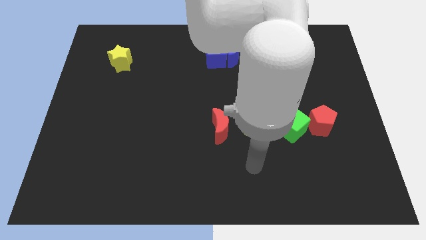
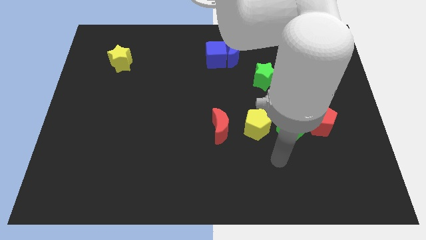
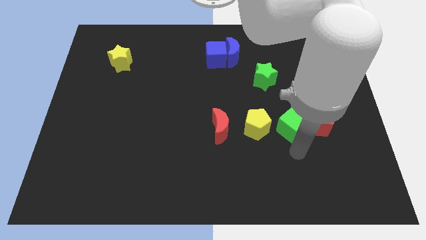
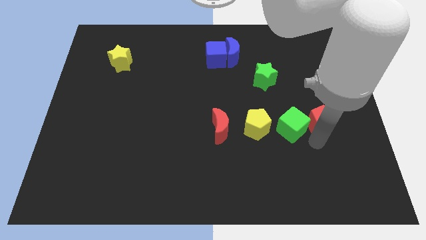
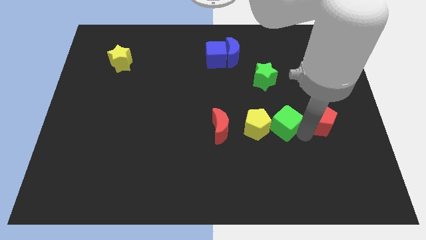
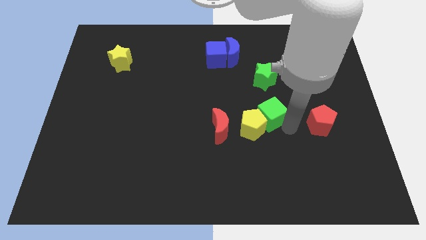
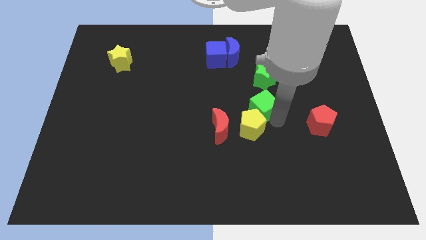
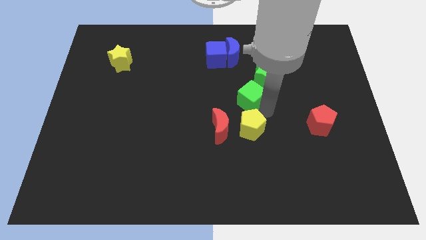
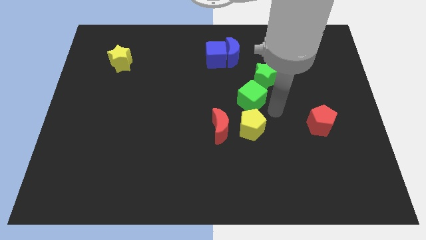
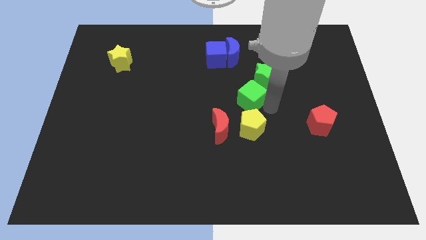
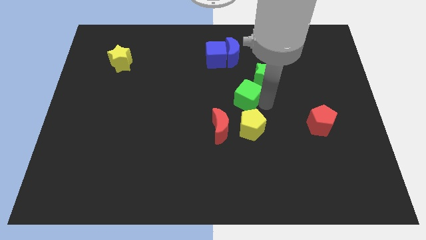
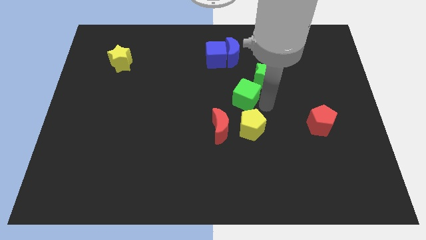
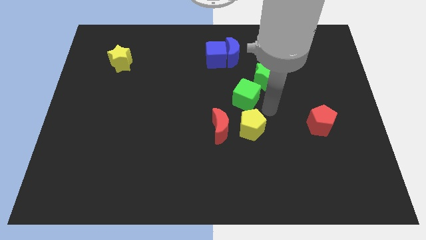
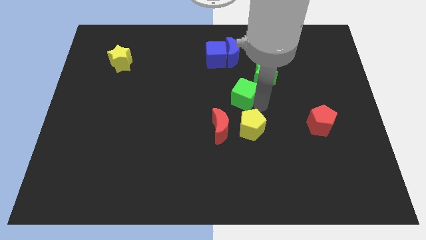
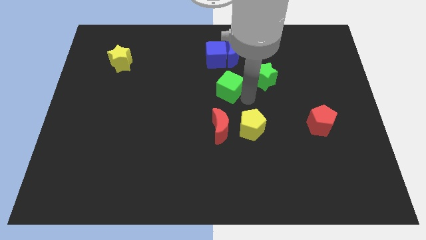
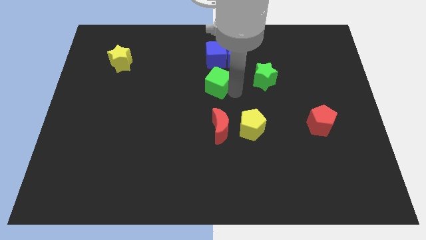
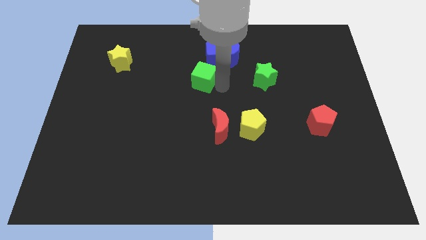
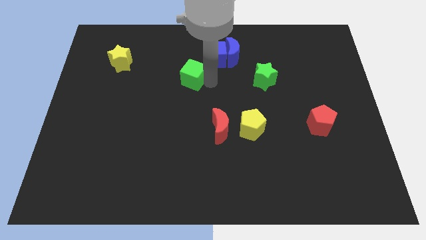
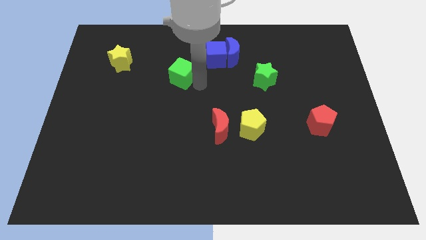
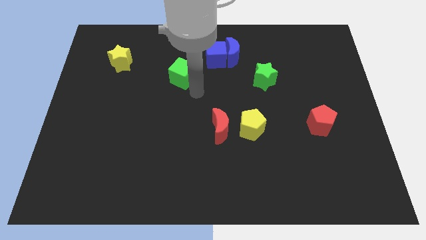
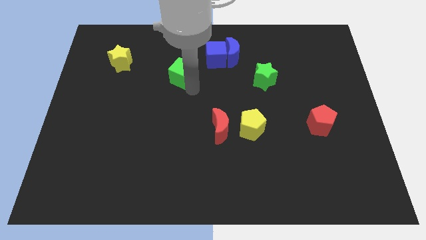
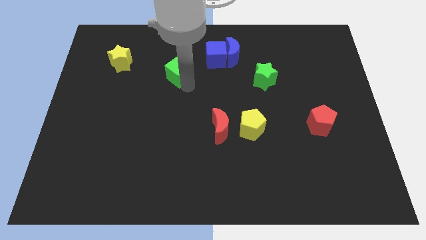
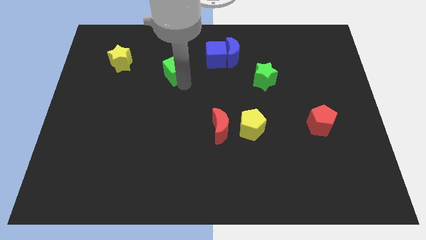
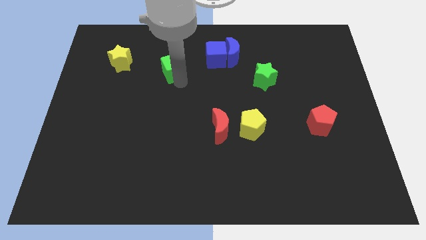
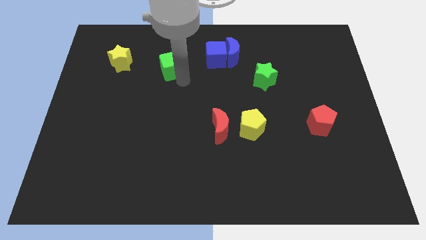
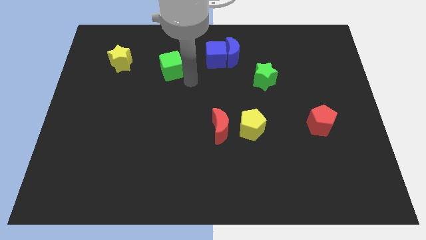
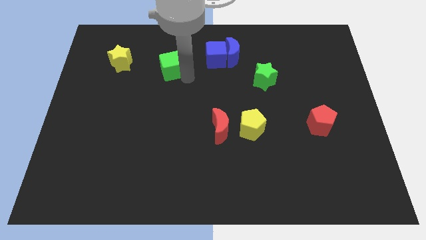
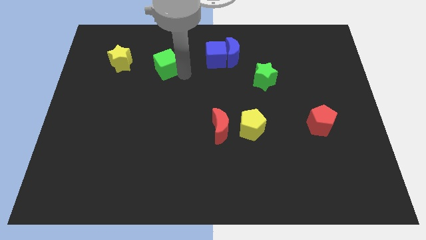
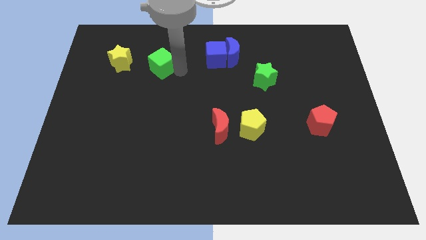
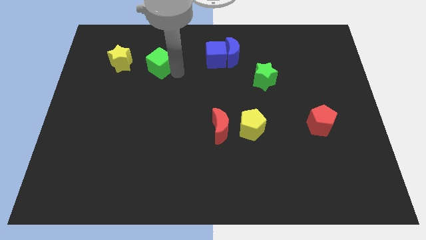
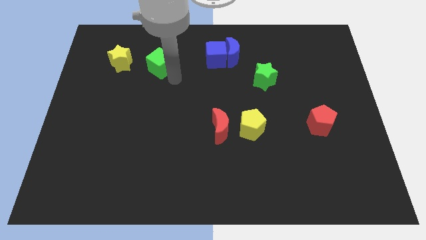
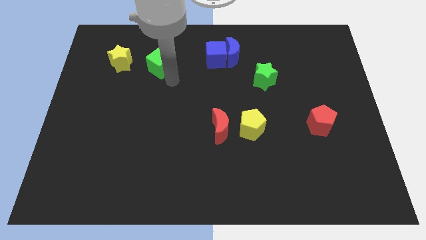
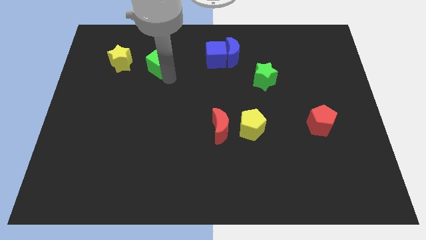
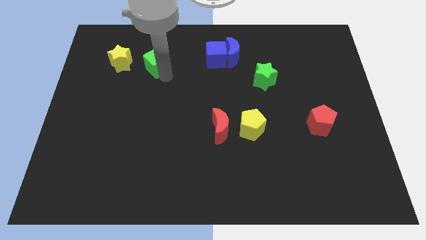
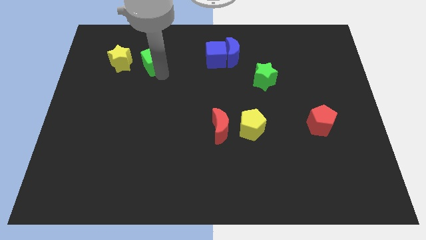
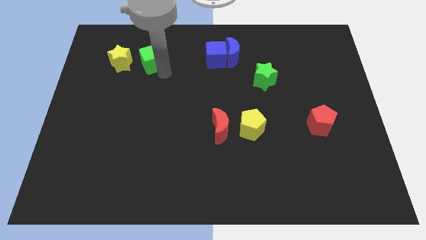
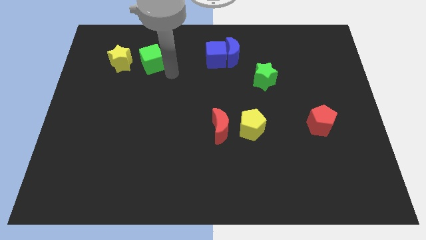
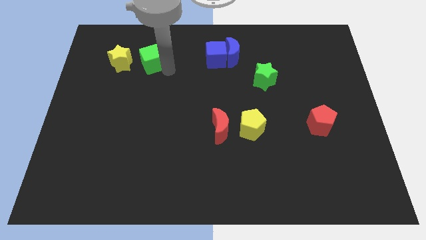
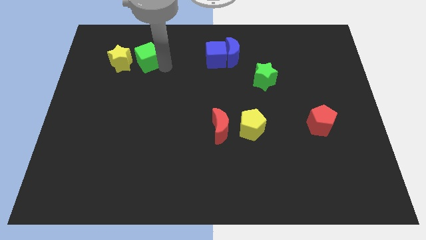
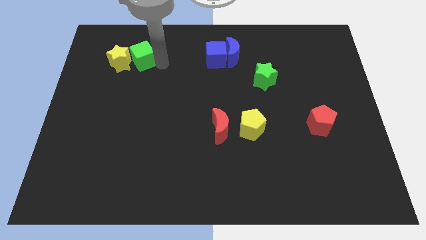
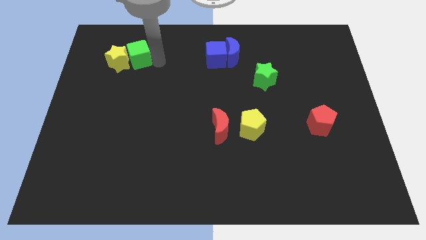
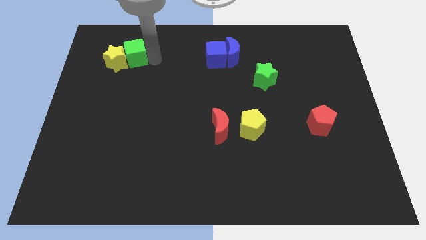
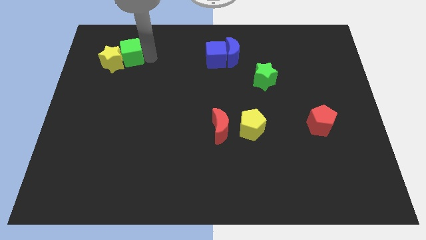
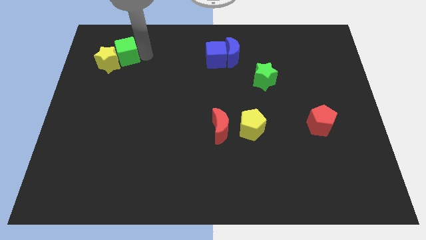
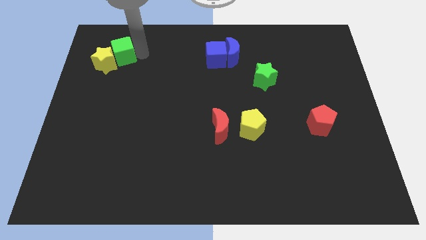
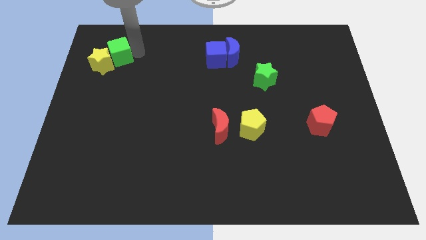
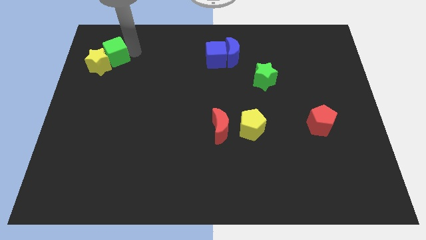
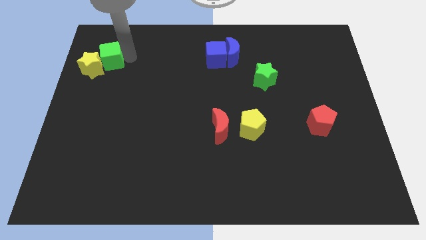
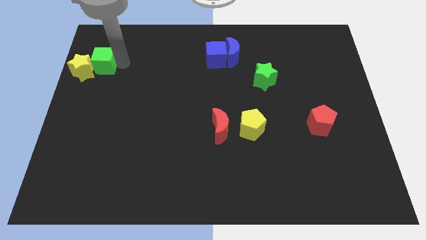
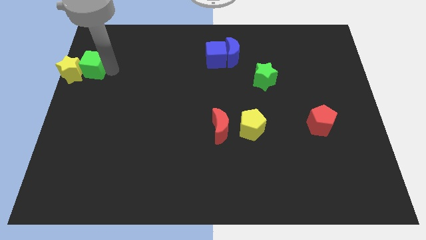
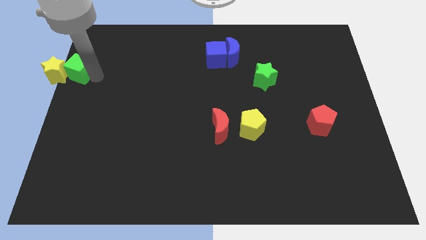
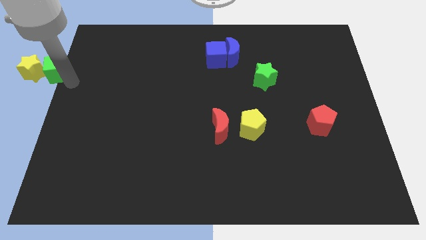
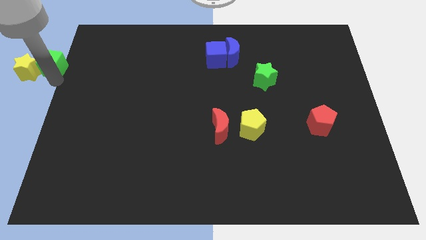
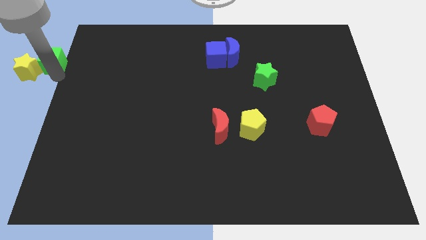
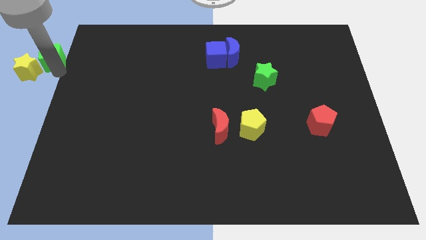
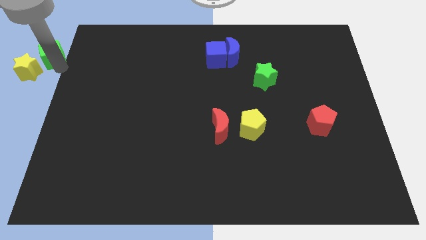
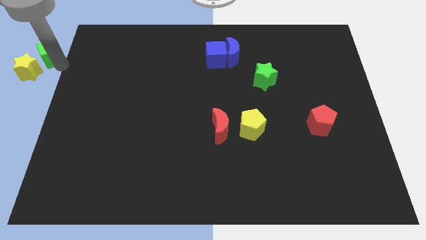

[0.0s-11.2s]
slide the green cube to the top left of the board

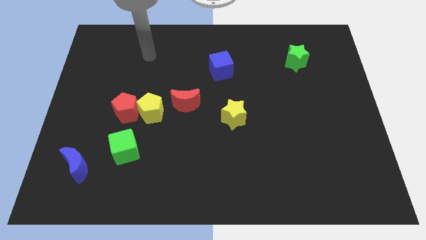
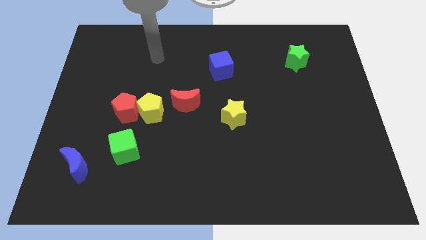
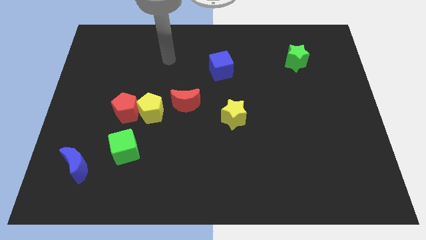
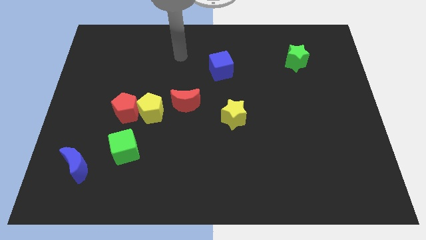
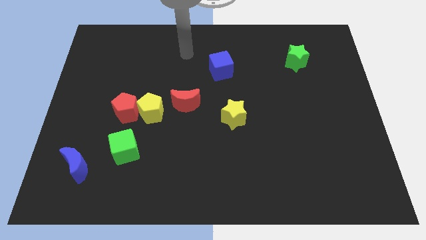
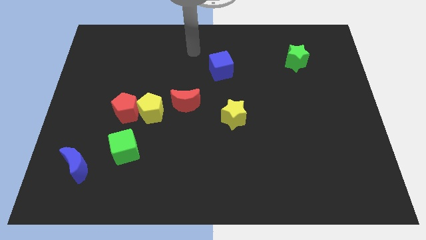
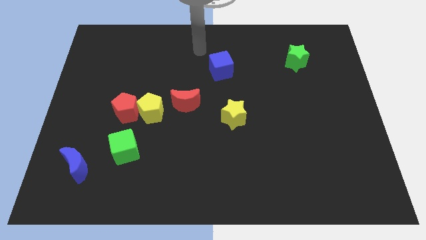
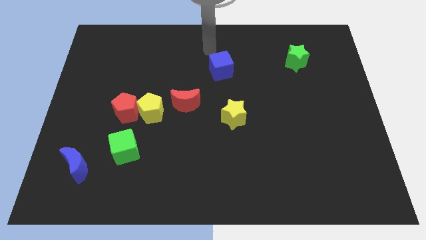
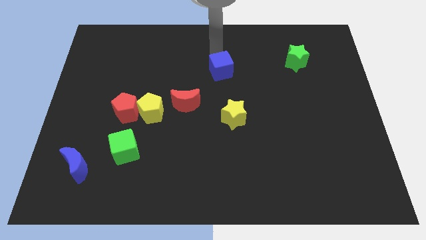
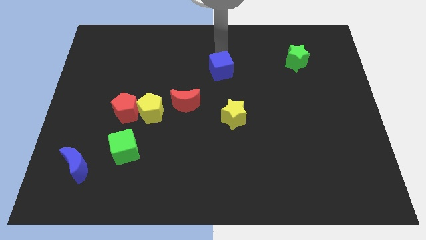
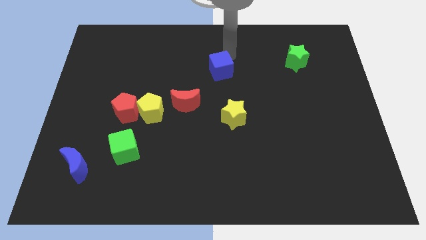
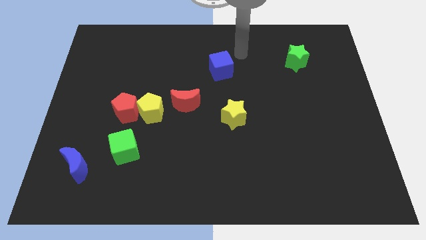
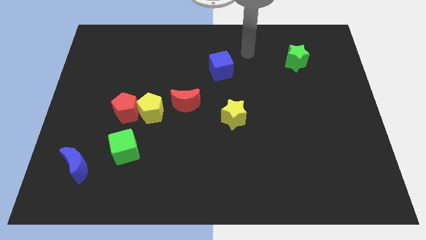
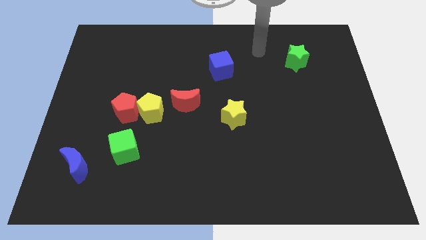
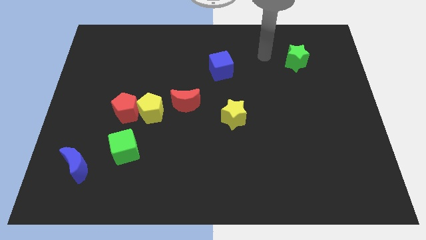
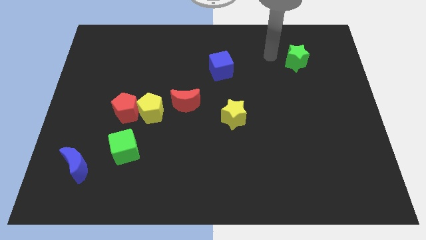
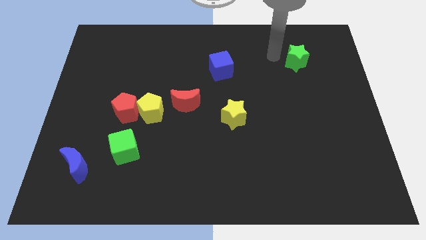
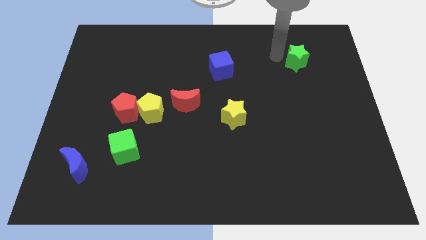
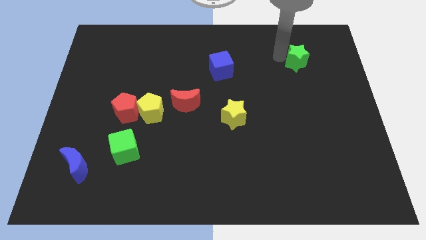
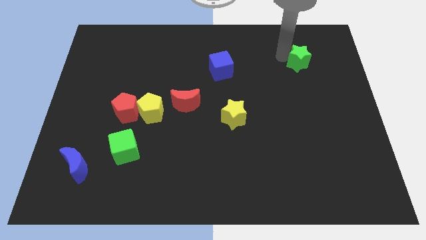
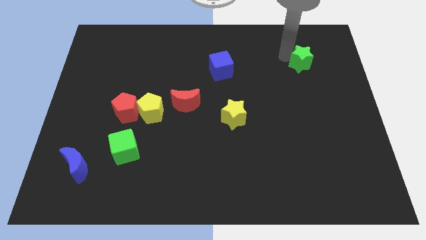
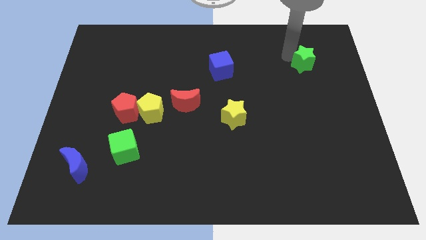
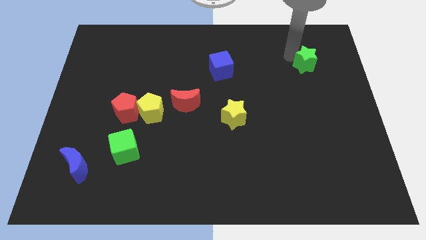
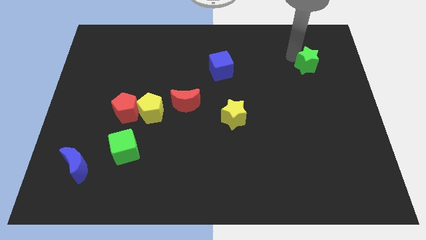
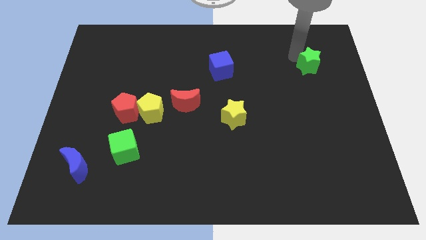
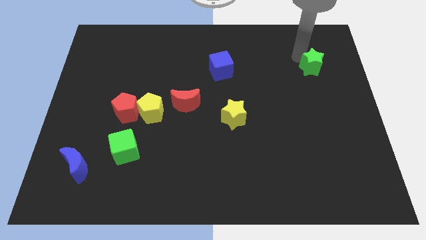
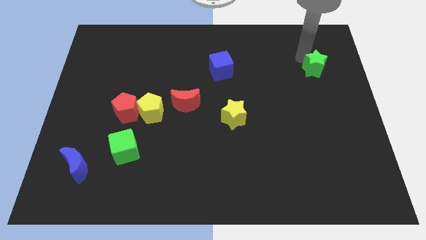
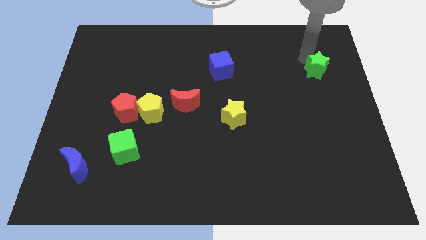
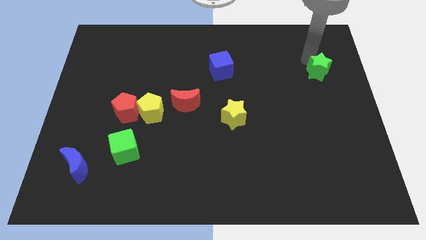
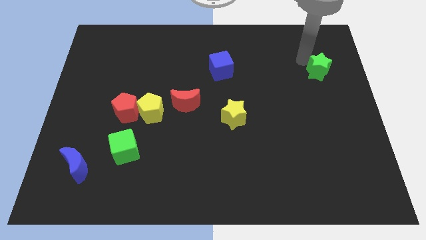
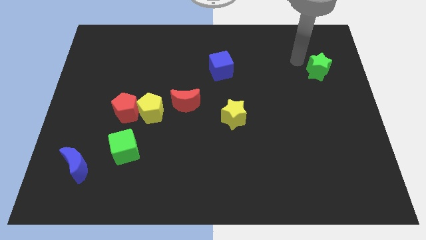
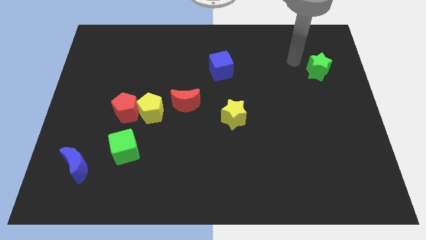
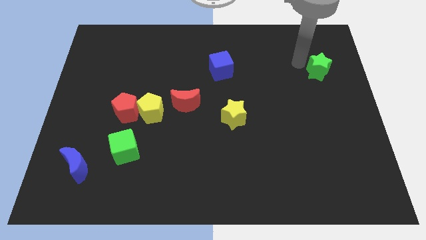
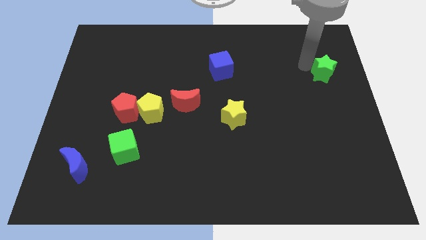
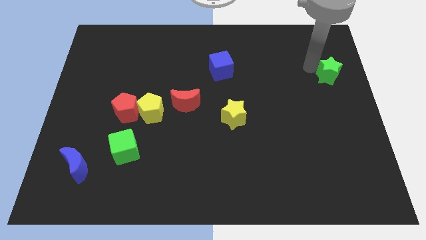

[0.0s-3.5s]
push the green star to the right side of the board
